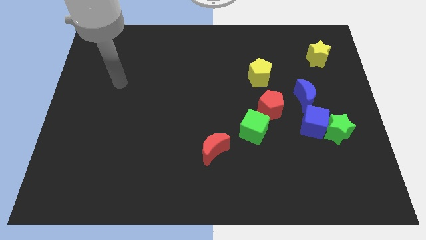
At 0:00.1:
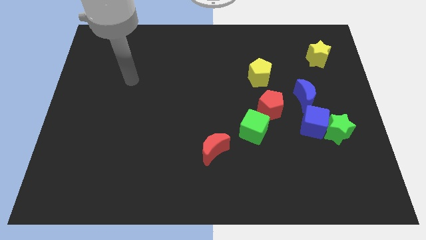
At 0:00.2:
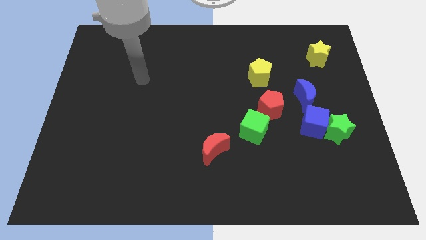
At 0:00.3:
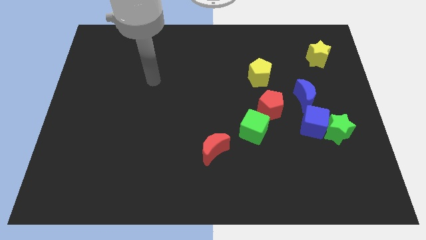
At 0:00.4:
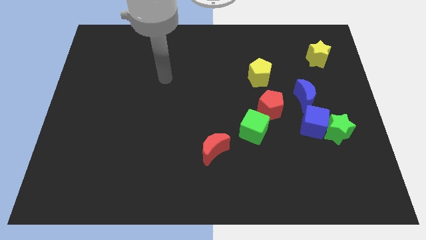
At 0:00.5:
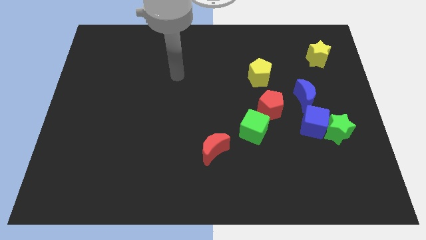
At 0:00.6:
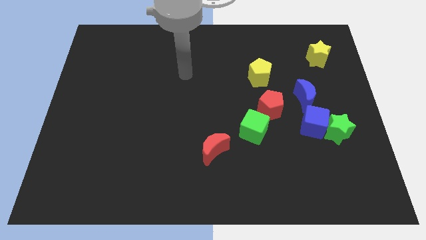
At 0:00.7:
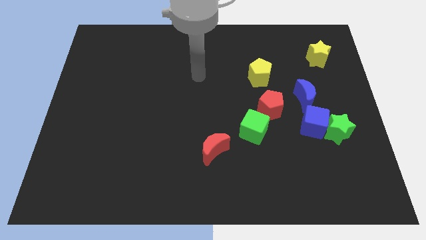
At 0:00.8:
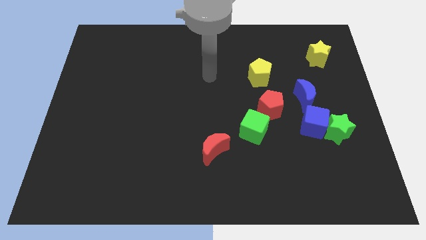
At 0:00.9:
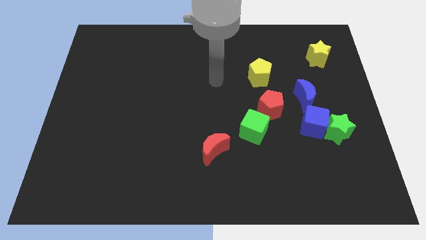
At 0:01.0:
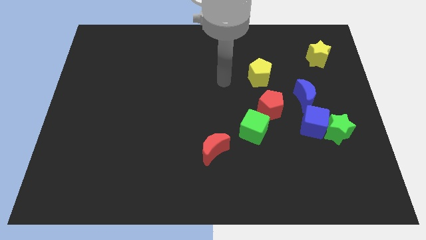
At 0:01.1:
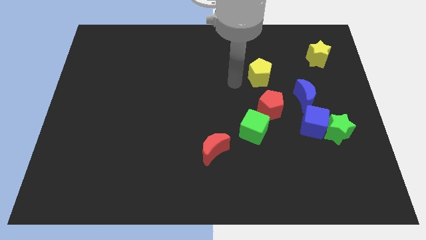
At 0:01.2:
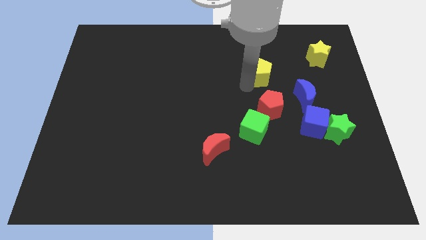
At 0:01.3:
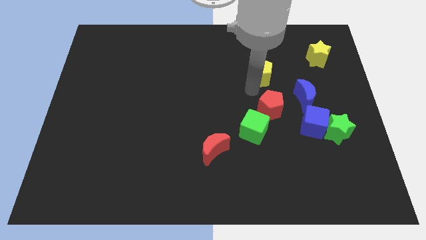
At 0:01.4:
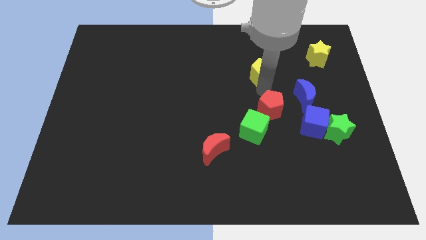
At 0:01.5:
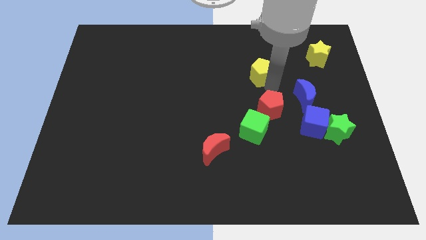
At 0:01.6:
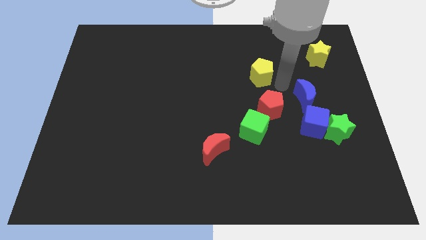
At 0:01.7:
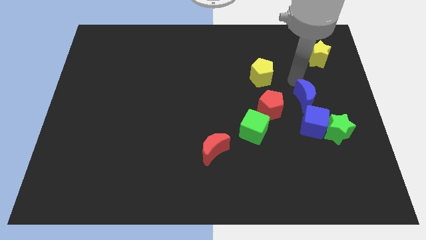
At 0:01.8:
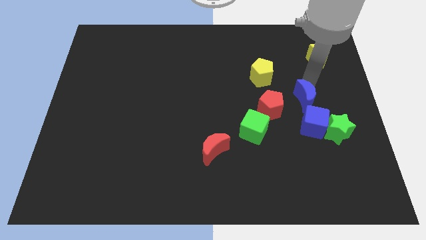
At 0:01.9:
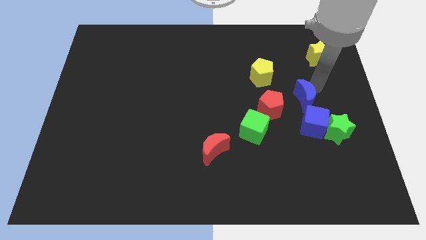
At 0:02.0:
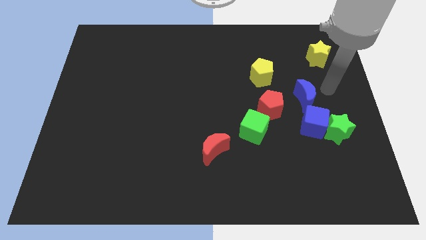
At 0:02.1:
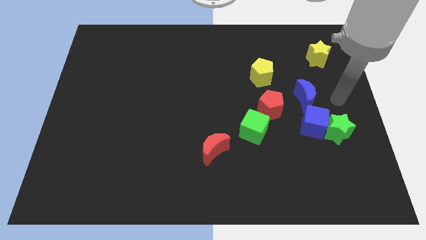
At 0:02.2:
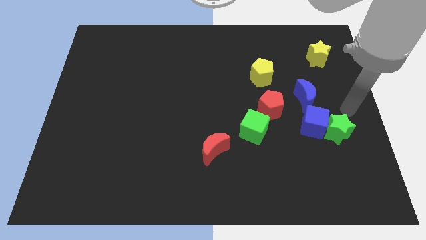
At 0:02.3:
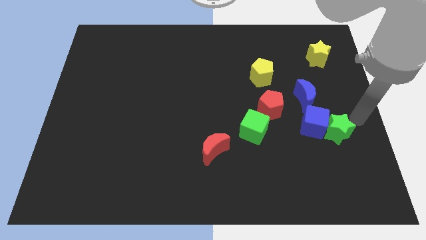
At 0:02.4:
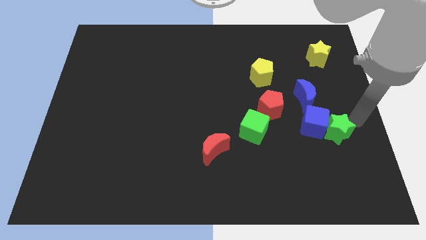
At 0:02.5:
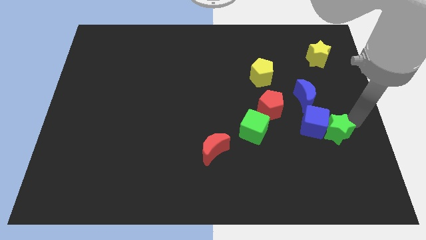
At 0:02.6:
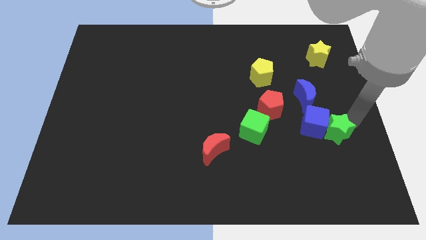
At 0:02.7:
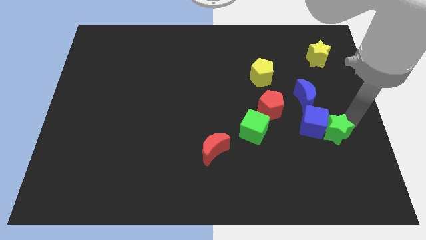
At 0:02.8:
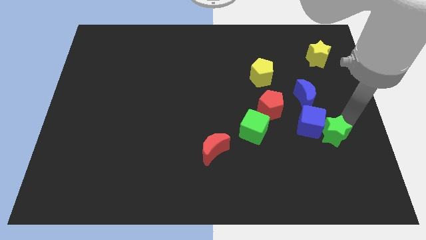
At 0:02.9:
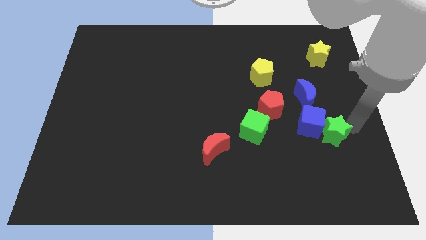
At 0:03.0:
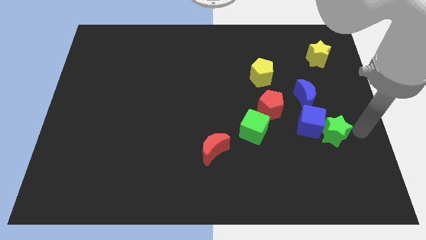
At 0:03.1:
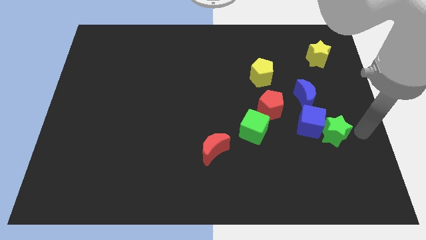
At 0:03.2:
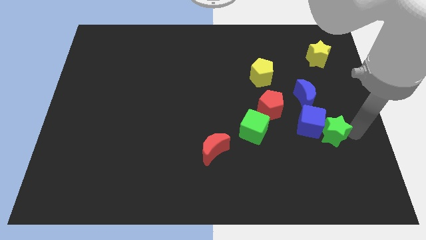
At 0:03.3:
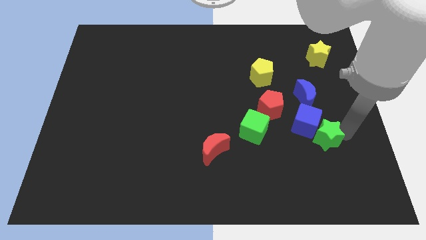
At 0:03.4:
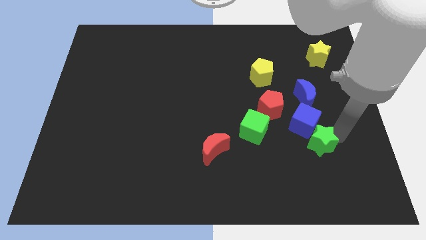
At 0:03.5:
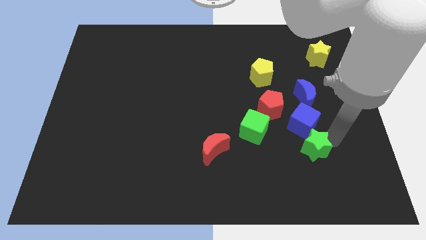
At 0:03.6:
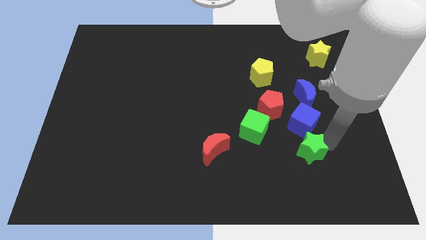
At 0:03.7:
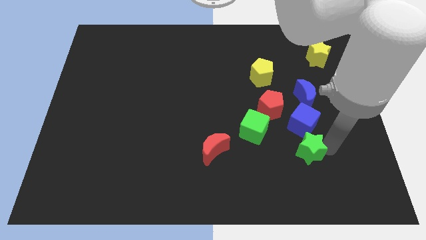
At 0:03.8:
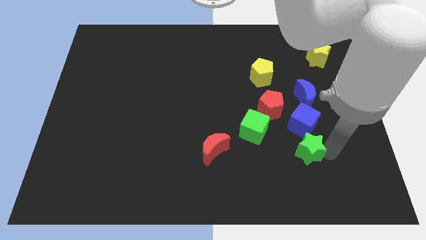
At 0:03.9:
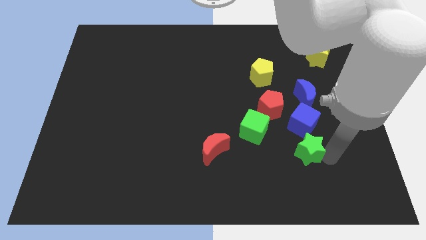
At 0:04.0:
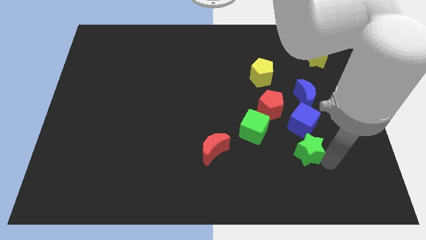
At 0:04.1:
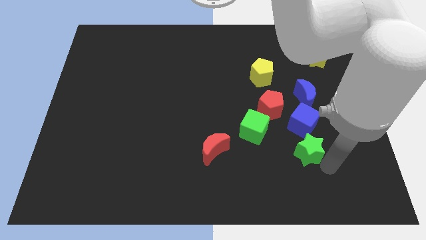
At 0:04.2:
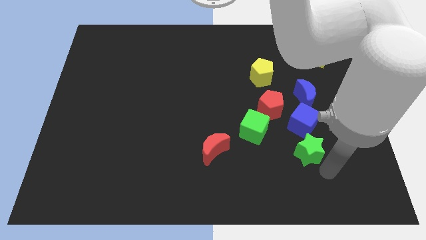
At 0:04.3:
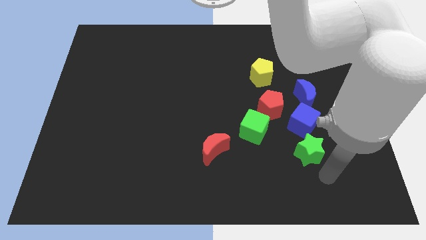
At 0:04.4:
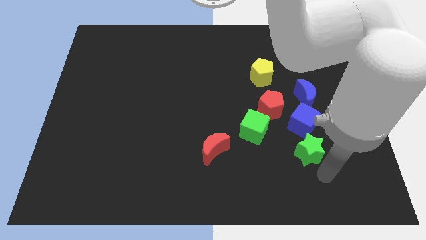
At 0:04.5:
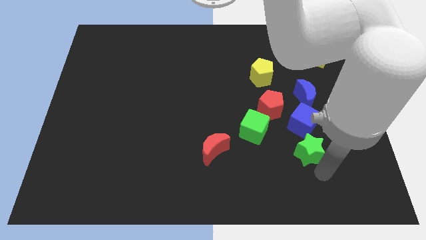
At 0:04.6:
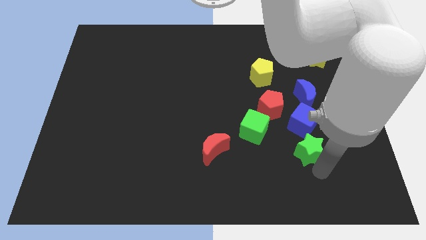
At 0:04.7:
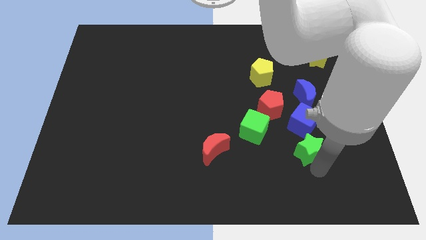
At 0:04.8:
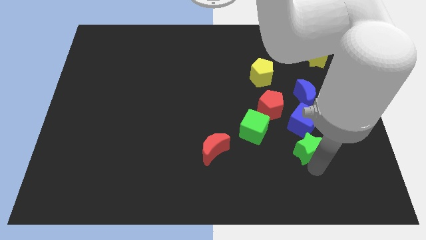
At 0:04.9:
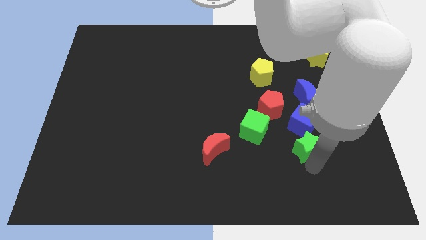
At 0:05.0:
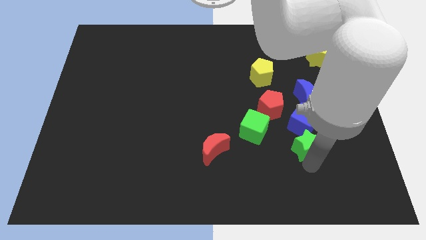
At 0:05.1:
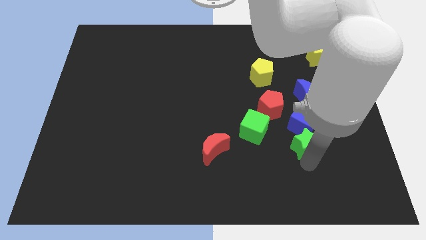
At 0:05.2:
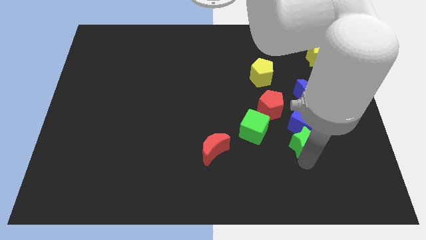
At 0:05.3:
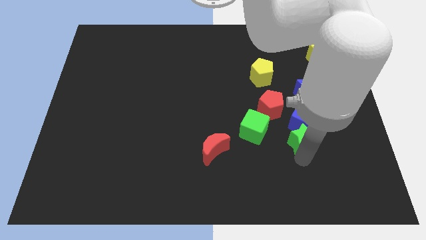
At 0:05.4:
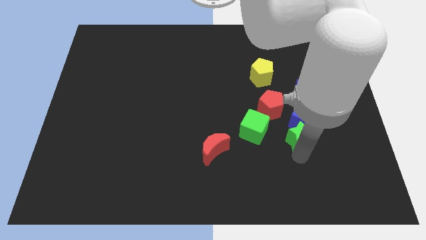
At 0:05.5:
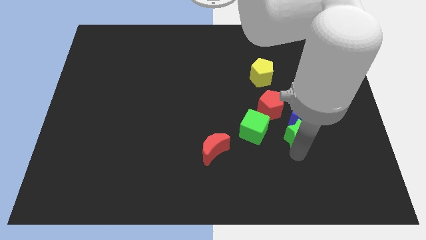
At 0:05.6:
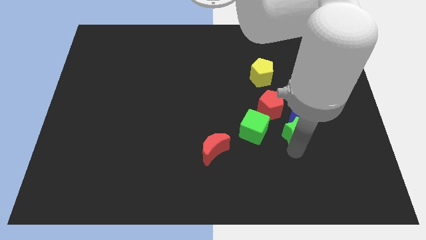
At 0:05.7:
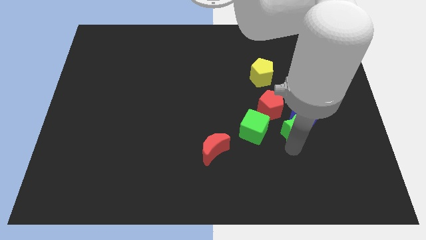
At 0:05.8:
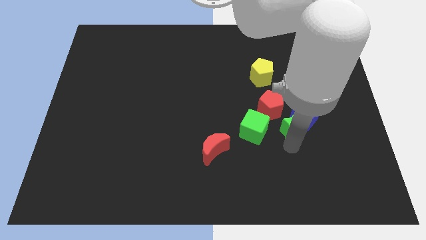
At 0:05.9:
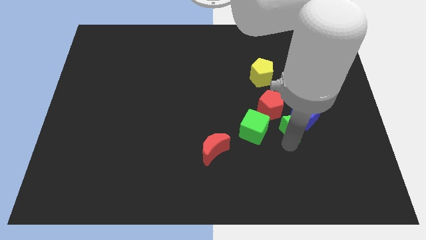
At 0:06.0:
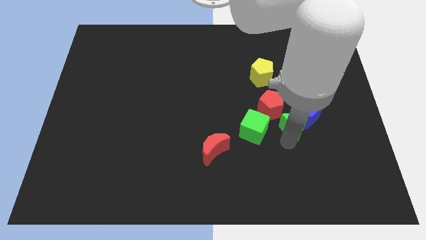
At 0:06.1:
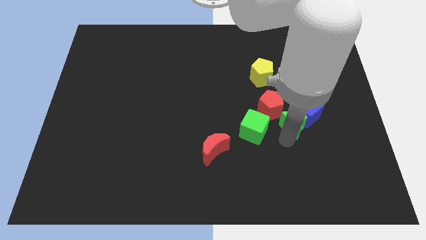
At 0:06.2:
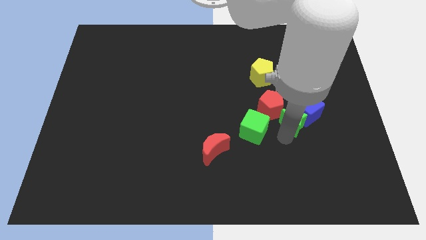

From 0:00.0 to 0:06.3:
move the green star to the red pentagon
